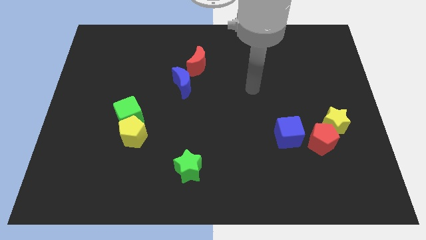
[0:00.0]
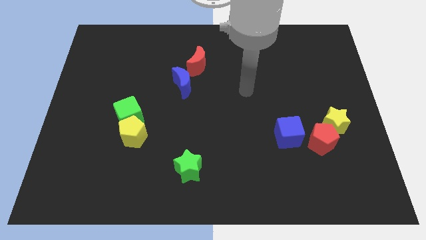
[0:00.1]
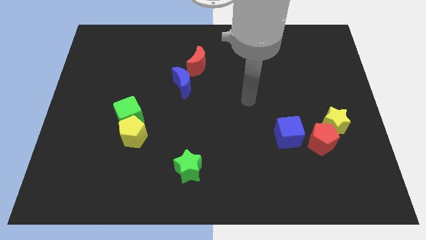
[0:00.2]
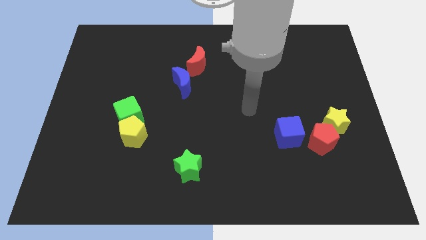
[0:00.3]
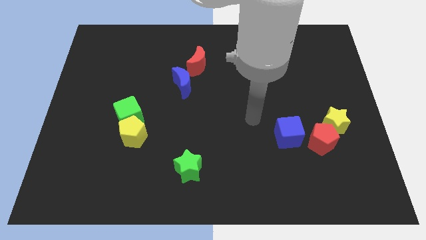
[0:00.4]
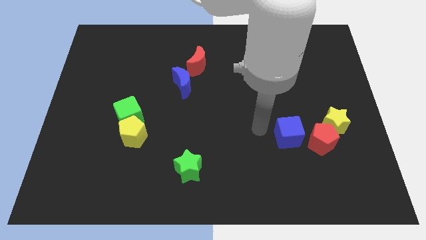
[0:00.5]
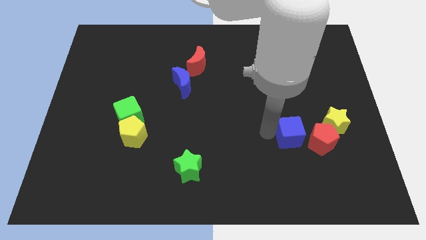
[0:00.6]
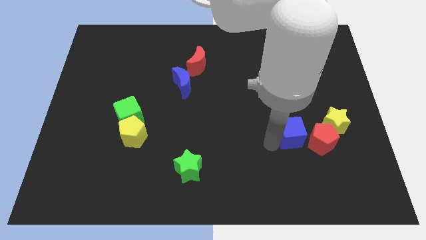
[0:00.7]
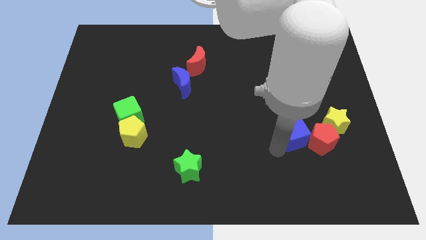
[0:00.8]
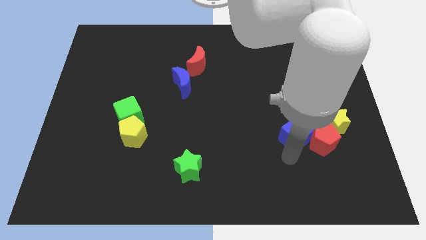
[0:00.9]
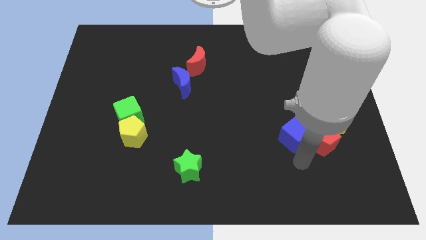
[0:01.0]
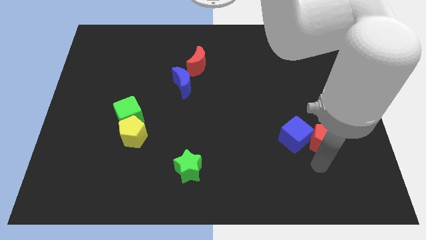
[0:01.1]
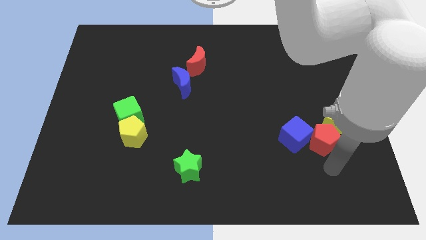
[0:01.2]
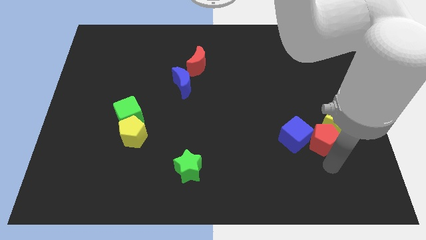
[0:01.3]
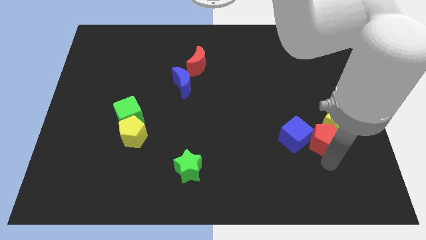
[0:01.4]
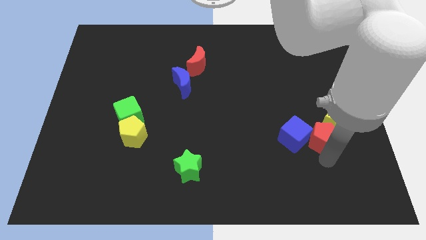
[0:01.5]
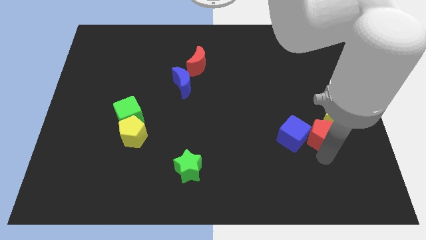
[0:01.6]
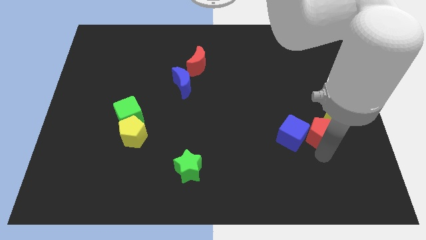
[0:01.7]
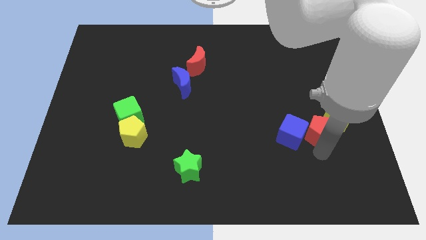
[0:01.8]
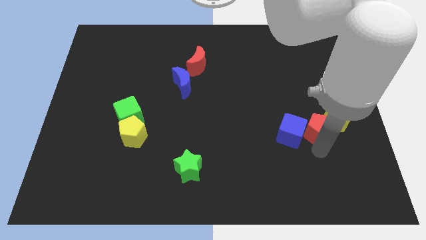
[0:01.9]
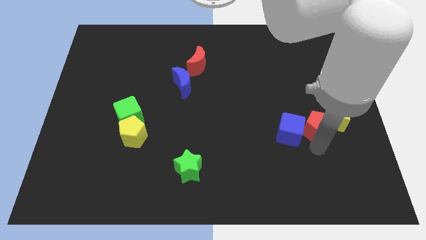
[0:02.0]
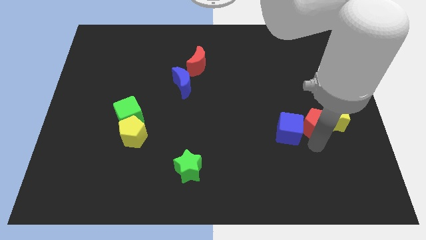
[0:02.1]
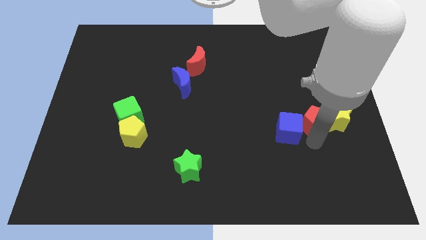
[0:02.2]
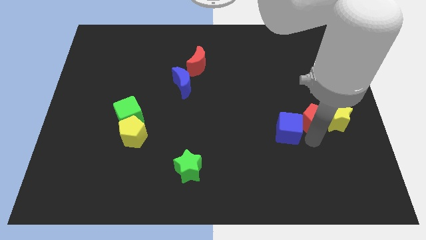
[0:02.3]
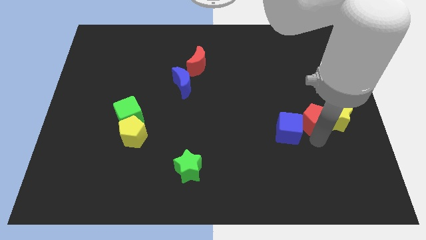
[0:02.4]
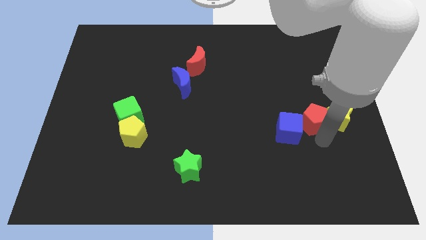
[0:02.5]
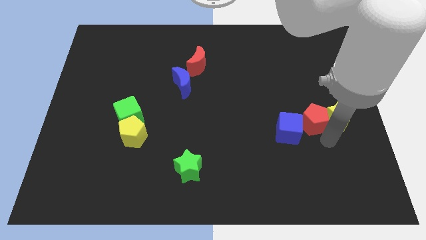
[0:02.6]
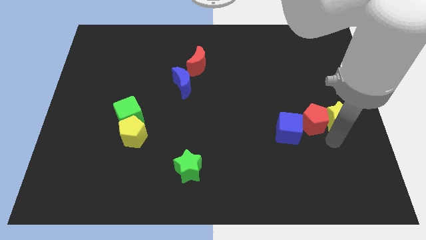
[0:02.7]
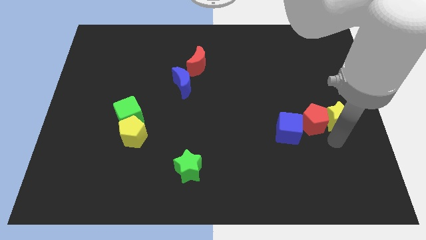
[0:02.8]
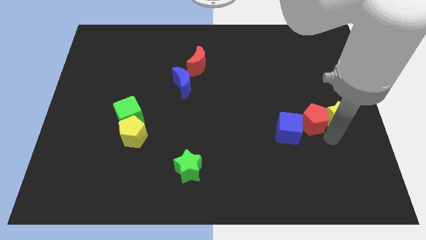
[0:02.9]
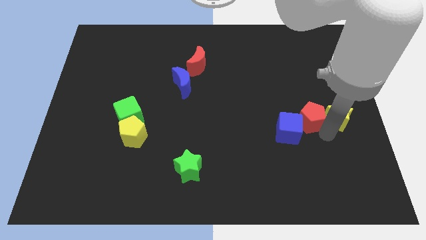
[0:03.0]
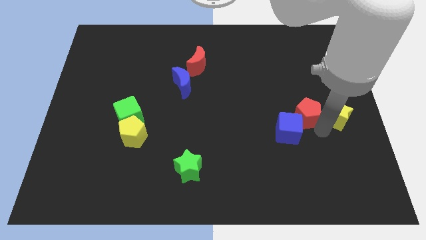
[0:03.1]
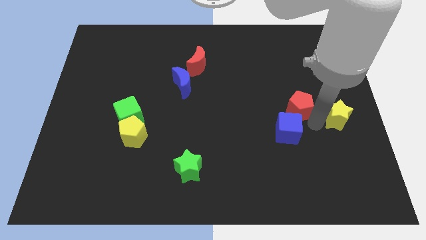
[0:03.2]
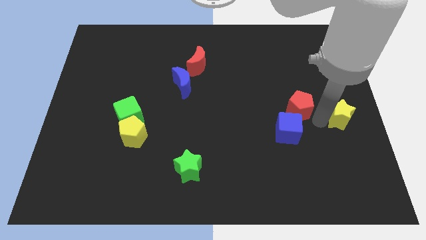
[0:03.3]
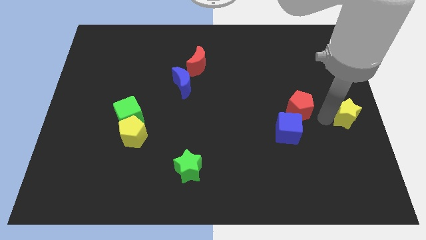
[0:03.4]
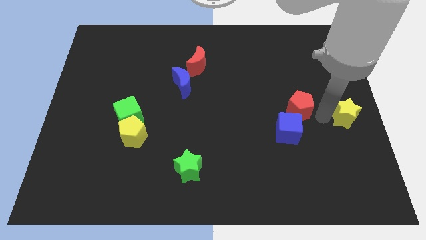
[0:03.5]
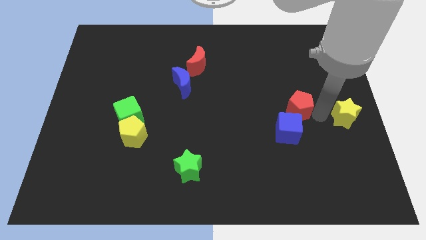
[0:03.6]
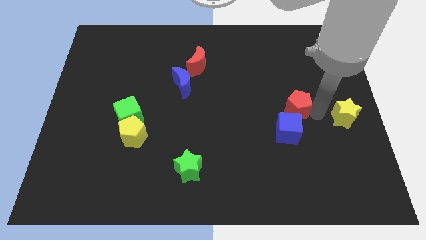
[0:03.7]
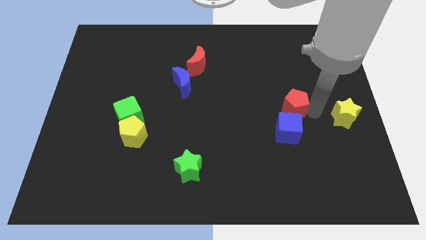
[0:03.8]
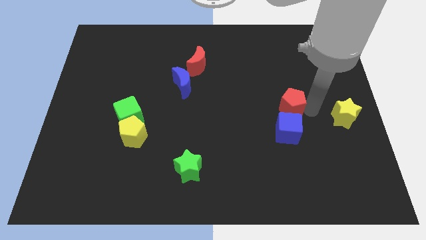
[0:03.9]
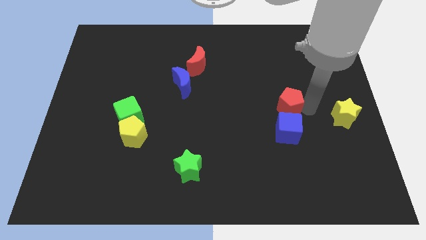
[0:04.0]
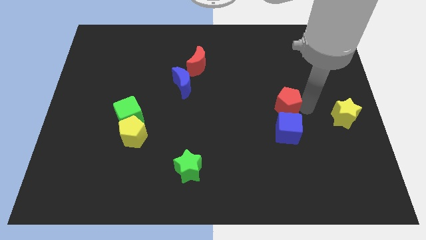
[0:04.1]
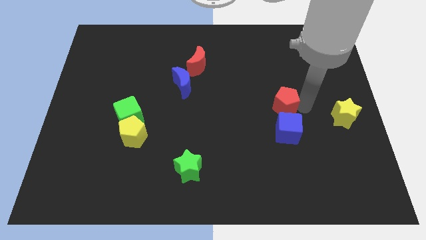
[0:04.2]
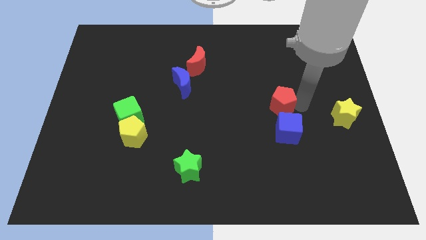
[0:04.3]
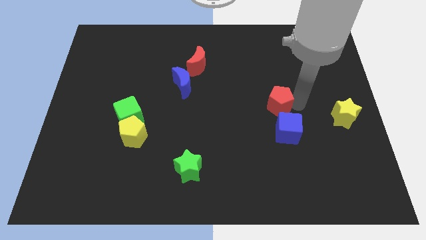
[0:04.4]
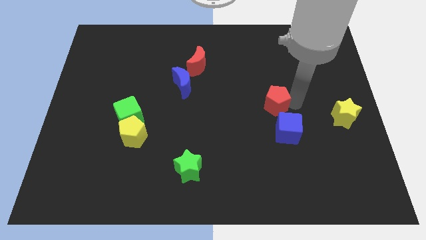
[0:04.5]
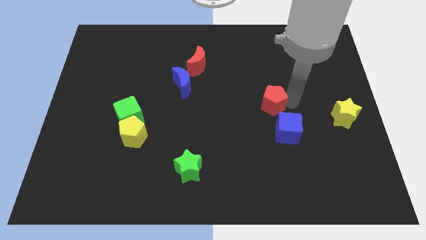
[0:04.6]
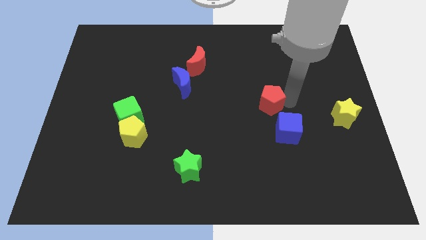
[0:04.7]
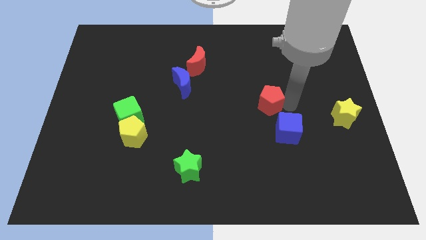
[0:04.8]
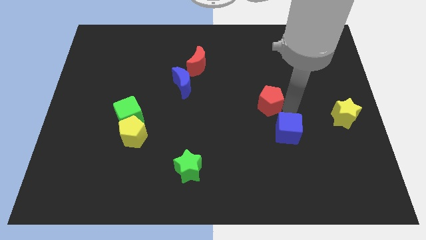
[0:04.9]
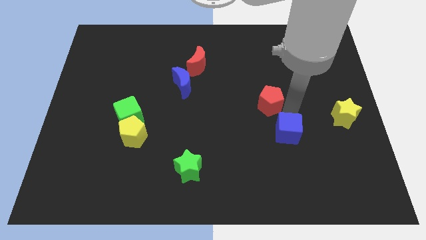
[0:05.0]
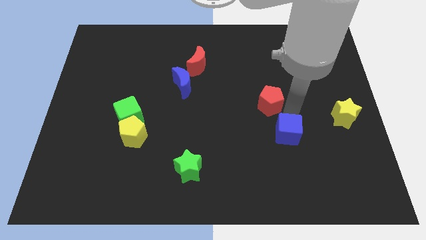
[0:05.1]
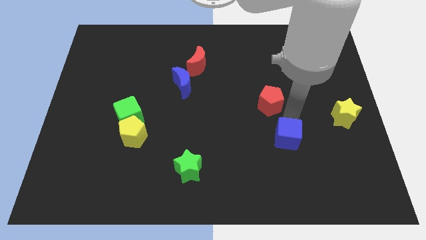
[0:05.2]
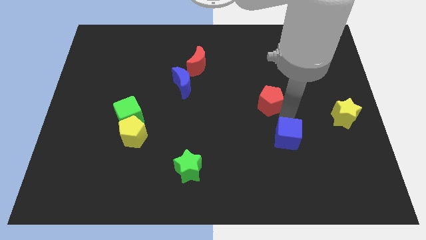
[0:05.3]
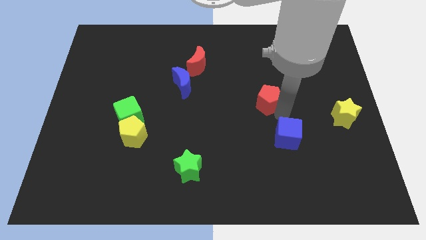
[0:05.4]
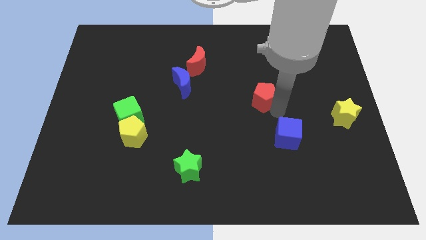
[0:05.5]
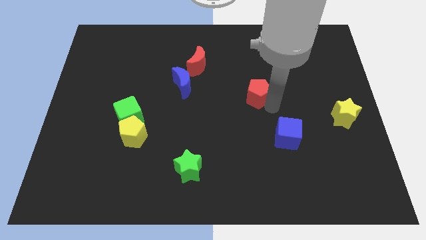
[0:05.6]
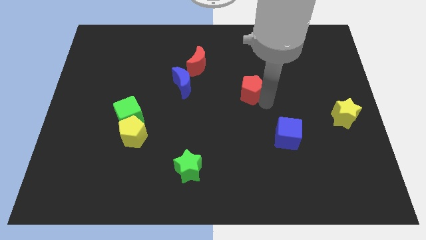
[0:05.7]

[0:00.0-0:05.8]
move the red pentagon diagonally up and left

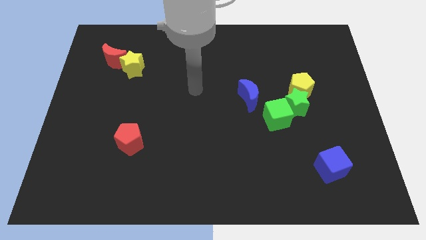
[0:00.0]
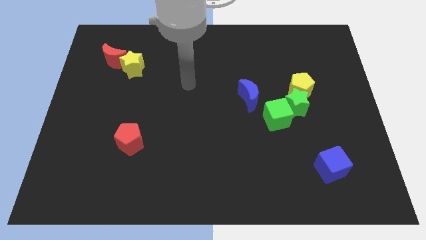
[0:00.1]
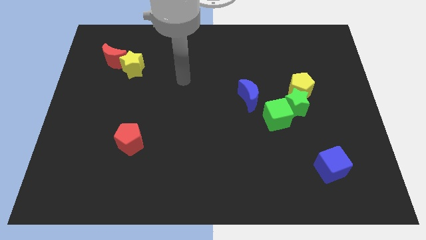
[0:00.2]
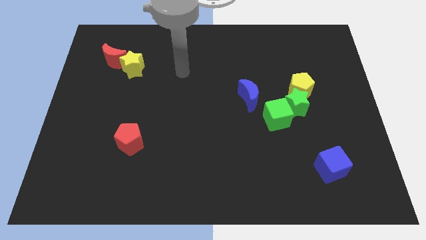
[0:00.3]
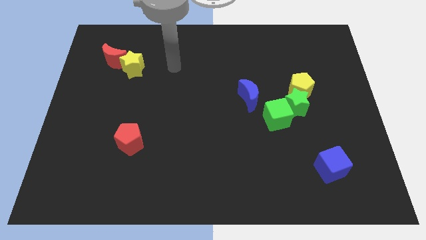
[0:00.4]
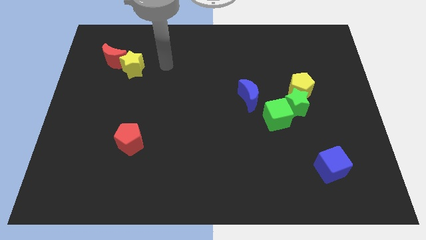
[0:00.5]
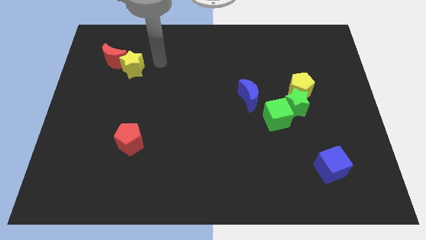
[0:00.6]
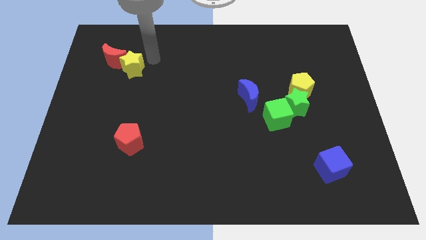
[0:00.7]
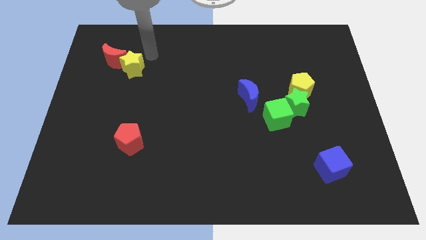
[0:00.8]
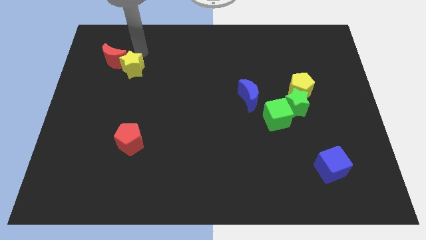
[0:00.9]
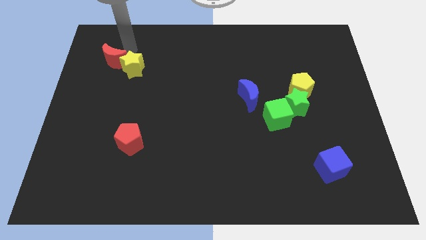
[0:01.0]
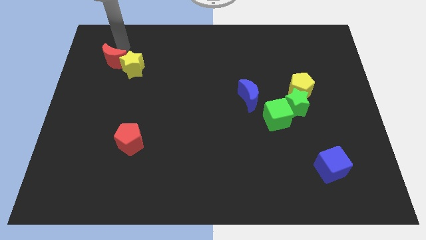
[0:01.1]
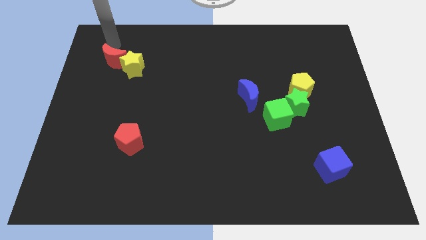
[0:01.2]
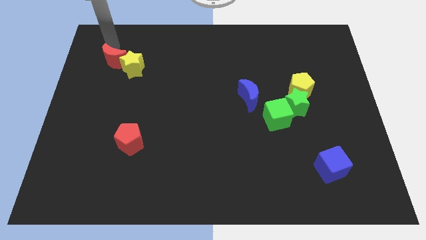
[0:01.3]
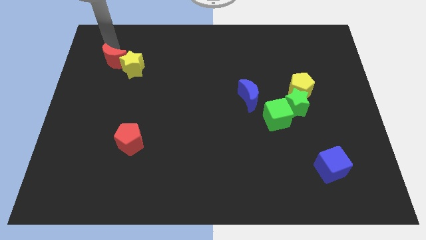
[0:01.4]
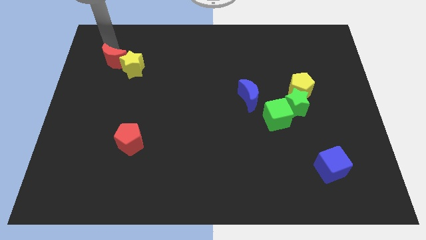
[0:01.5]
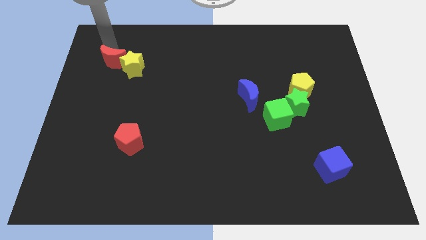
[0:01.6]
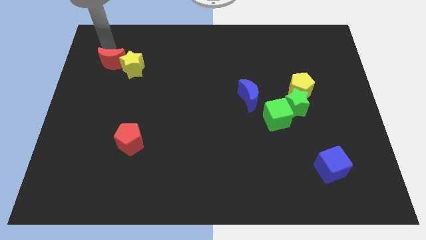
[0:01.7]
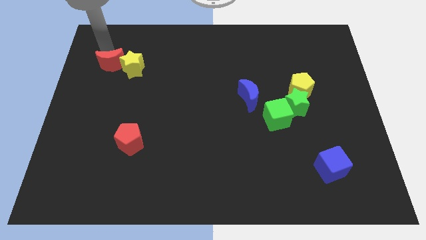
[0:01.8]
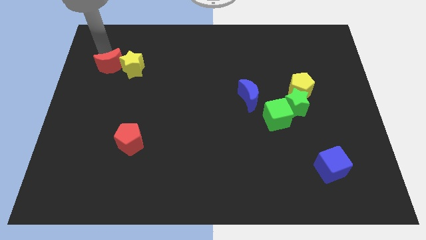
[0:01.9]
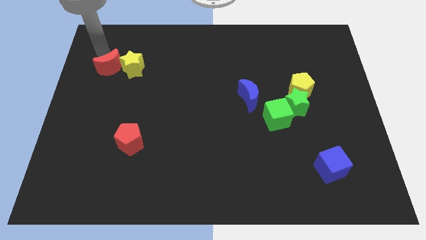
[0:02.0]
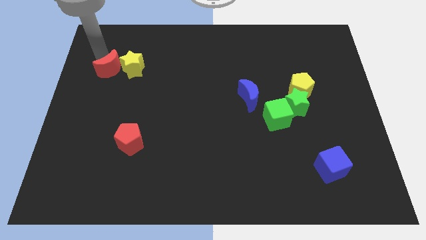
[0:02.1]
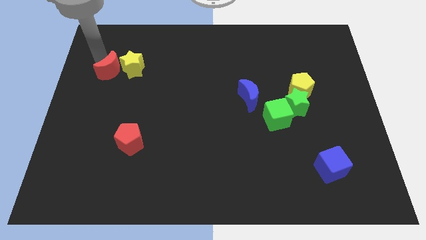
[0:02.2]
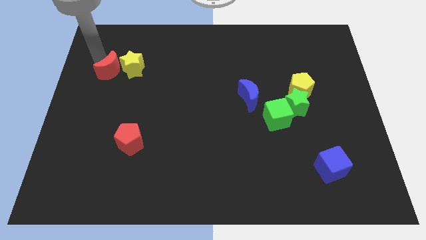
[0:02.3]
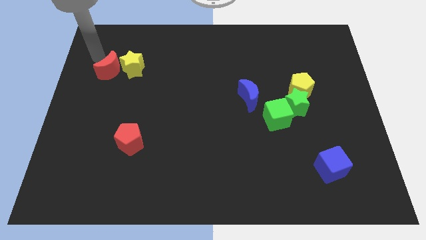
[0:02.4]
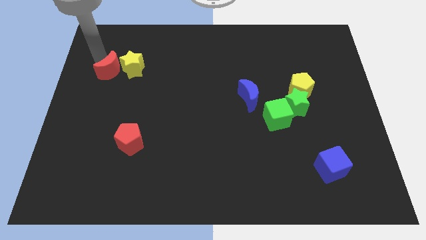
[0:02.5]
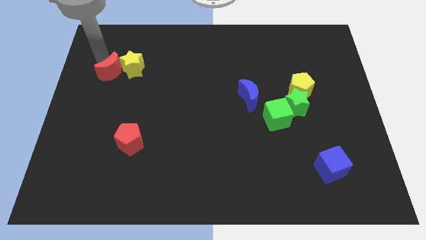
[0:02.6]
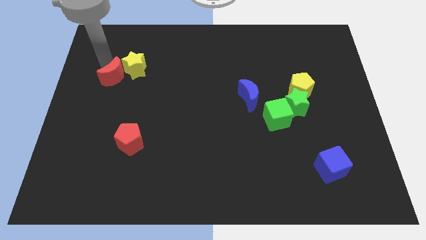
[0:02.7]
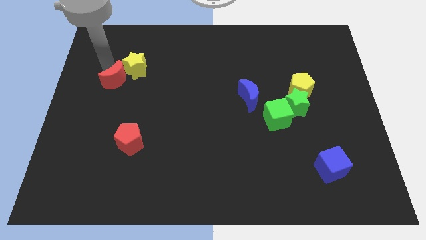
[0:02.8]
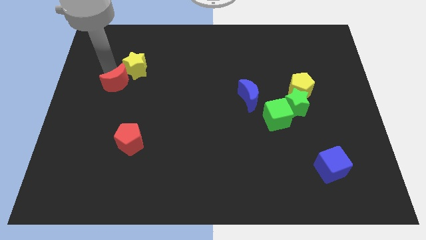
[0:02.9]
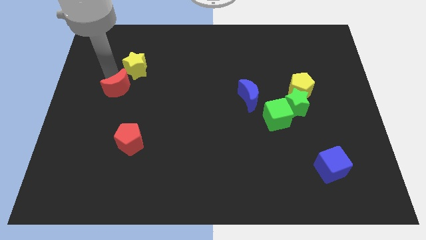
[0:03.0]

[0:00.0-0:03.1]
push the red moon a little bit down and right
